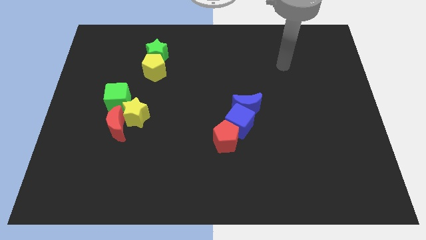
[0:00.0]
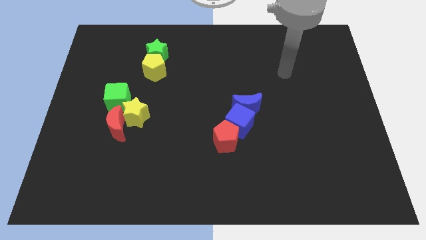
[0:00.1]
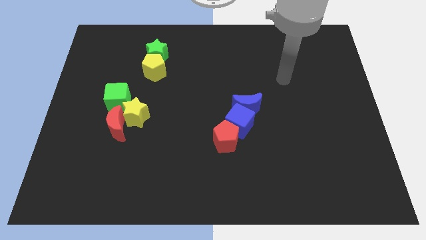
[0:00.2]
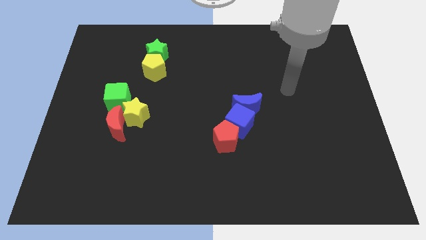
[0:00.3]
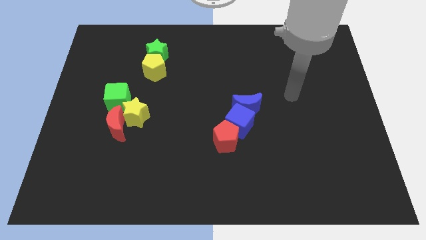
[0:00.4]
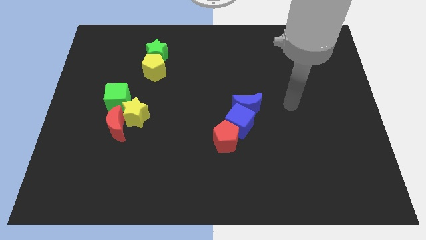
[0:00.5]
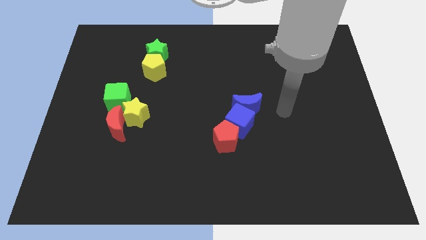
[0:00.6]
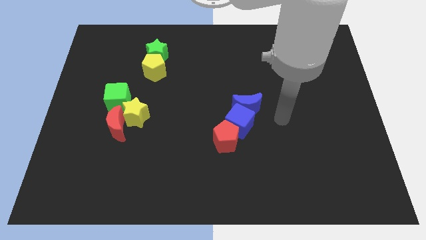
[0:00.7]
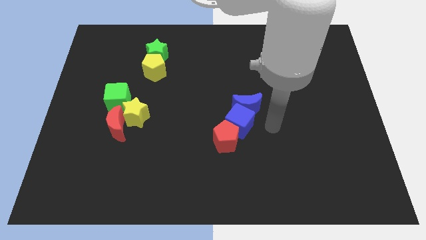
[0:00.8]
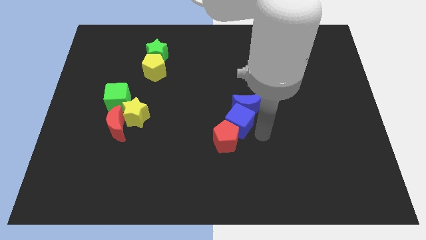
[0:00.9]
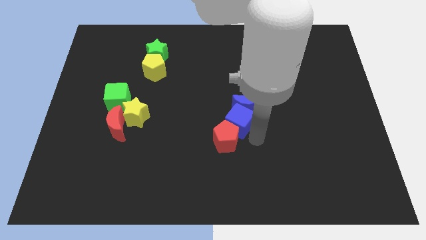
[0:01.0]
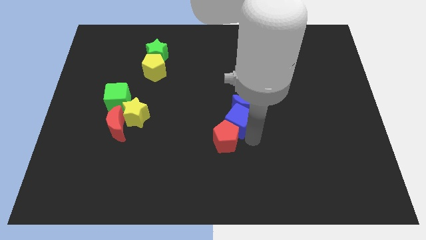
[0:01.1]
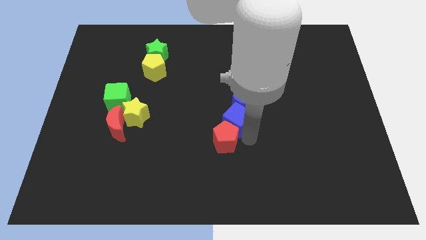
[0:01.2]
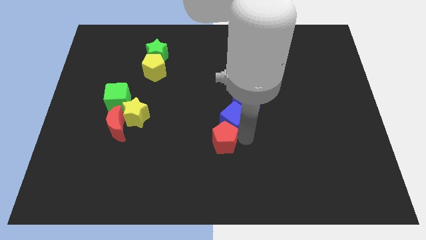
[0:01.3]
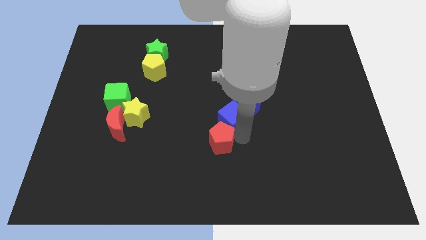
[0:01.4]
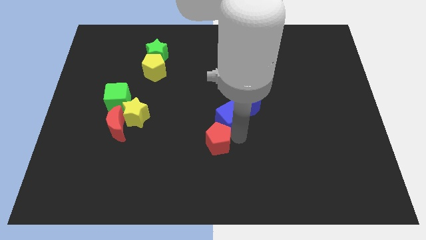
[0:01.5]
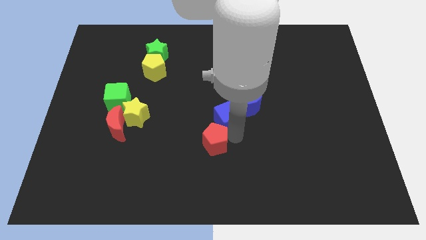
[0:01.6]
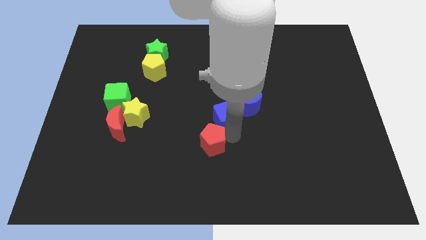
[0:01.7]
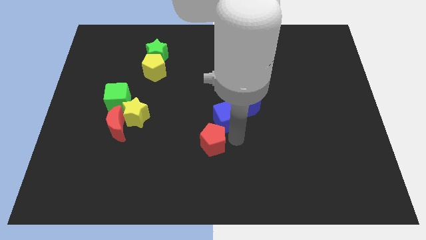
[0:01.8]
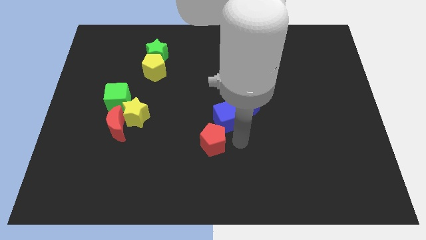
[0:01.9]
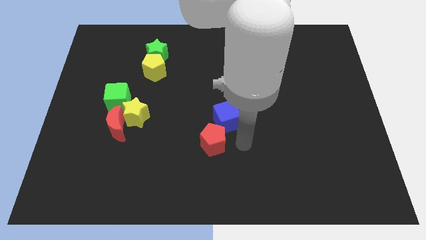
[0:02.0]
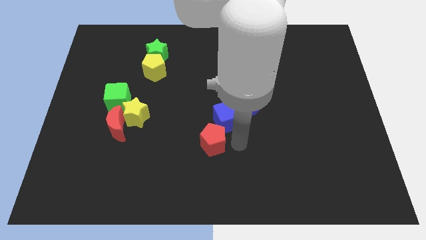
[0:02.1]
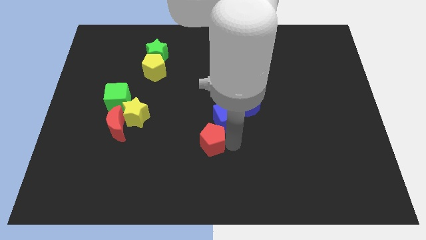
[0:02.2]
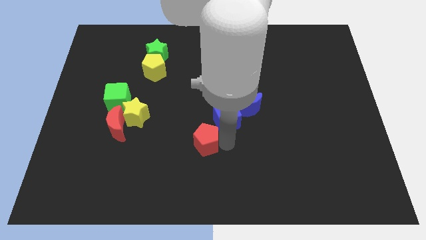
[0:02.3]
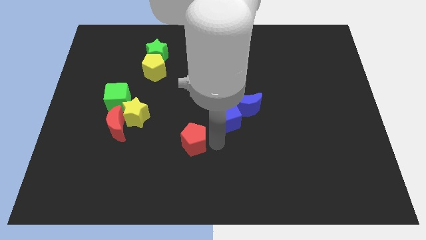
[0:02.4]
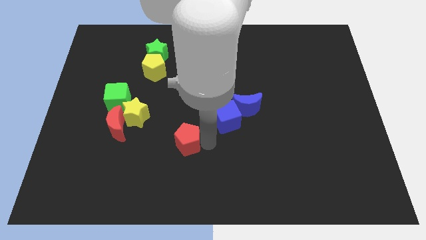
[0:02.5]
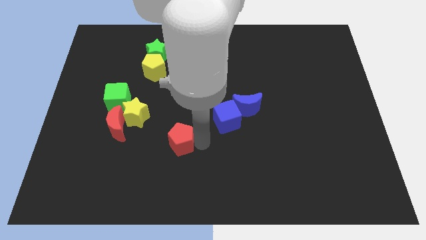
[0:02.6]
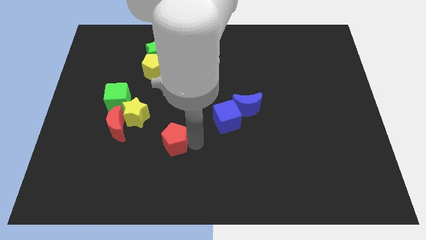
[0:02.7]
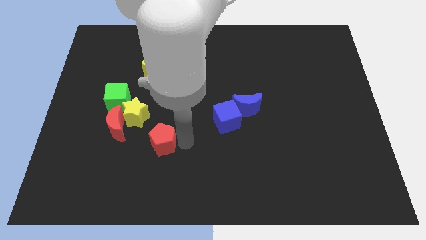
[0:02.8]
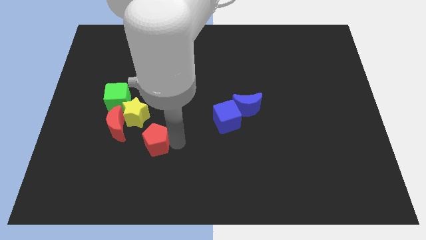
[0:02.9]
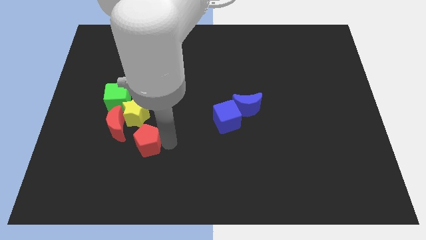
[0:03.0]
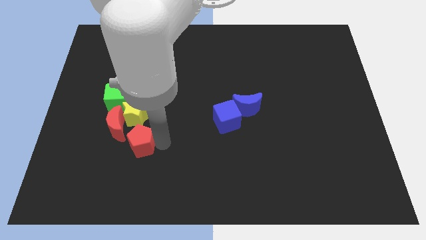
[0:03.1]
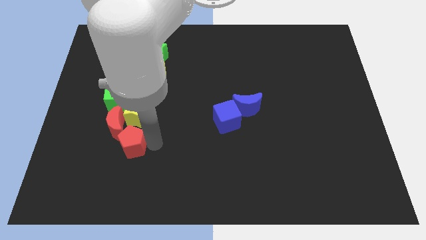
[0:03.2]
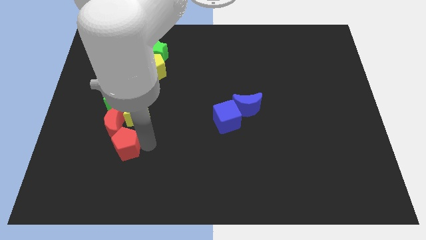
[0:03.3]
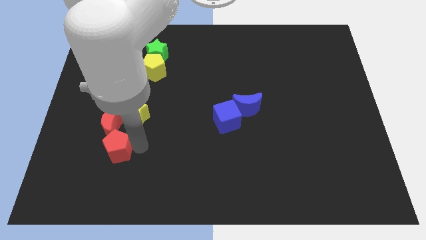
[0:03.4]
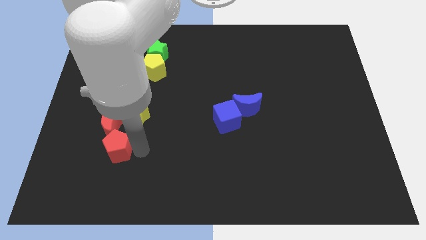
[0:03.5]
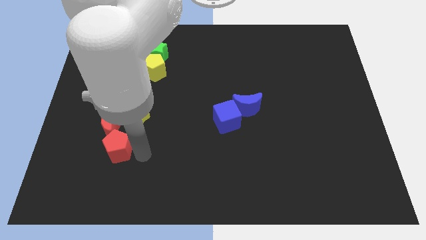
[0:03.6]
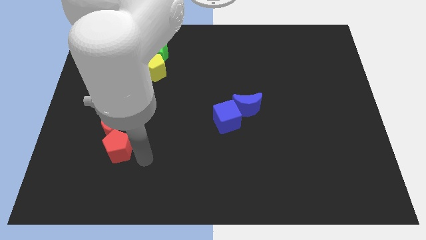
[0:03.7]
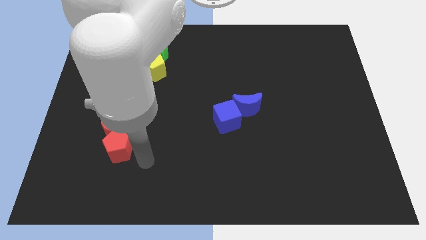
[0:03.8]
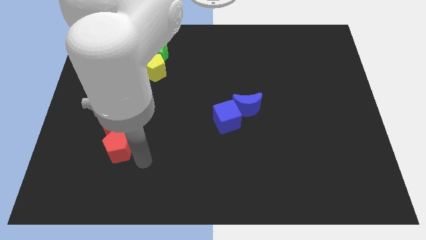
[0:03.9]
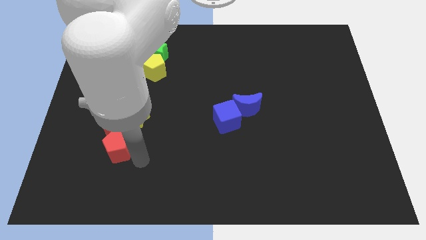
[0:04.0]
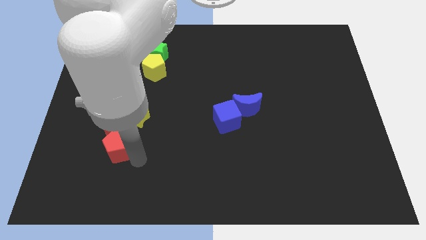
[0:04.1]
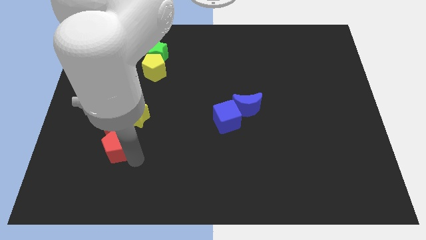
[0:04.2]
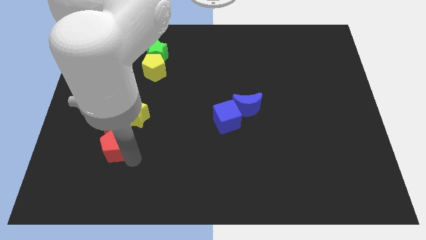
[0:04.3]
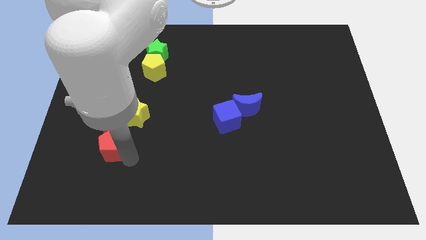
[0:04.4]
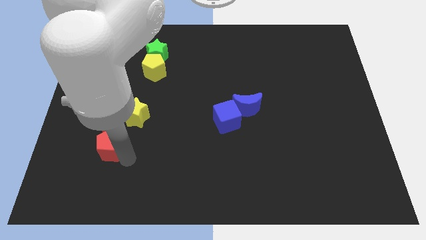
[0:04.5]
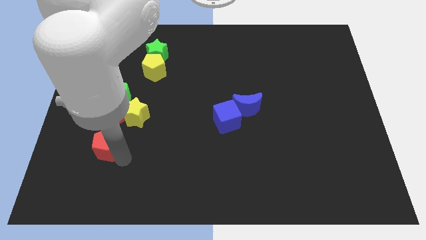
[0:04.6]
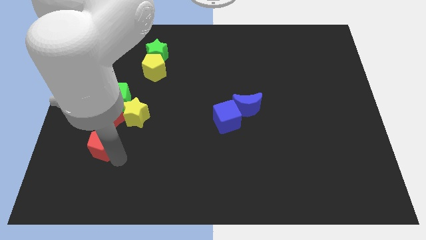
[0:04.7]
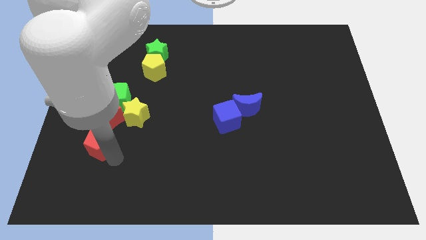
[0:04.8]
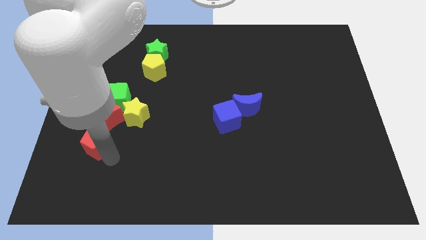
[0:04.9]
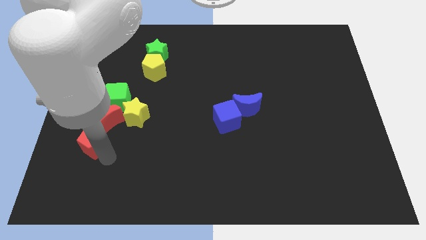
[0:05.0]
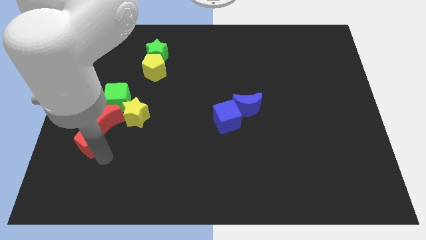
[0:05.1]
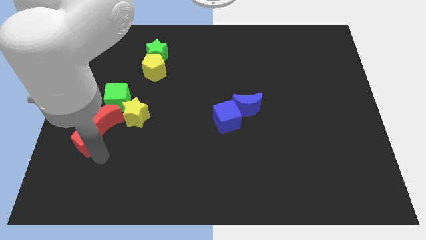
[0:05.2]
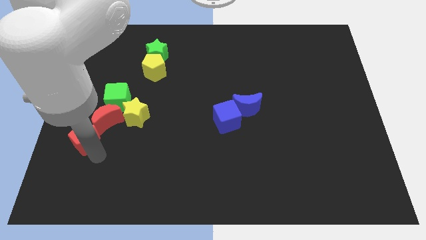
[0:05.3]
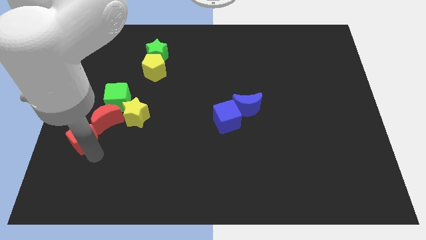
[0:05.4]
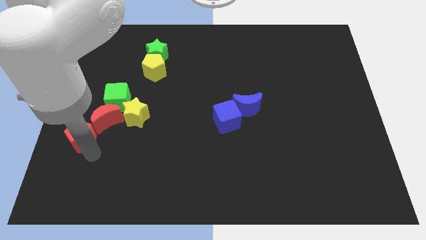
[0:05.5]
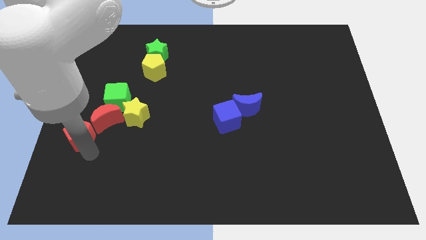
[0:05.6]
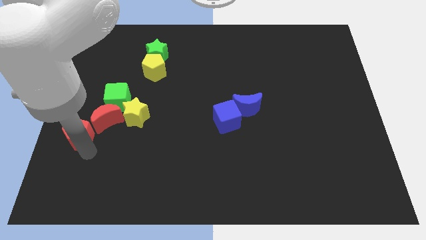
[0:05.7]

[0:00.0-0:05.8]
push the red pentagon to the center left

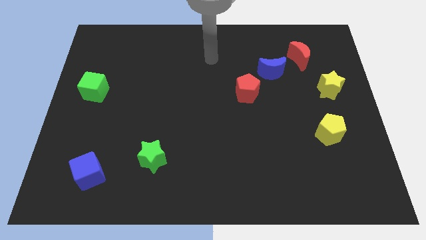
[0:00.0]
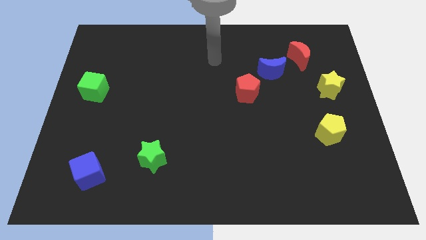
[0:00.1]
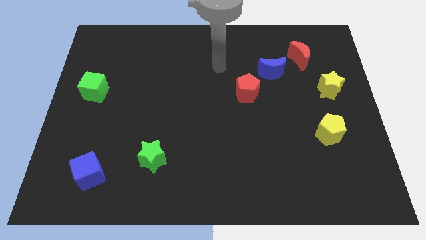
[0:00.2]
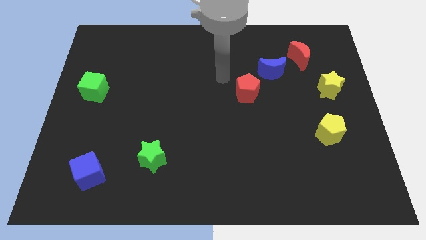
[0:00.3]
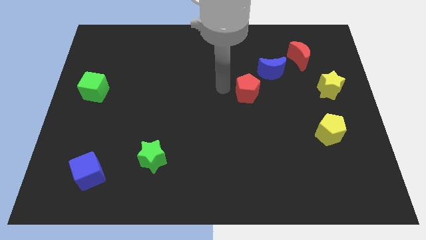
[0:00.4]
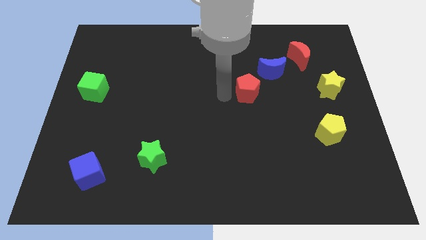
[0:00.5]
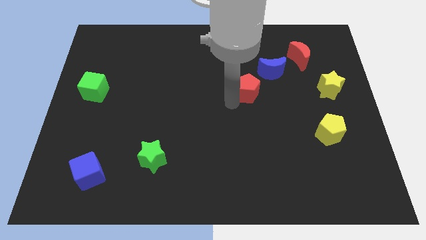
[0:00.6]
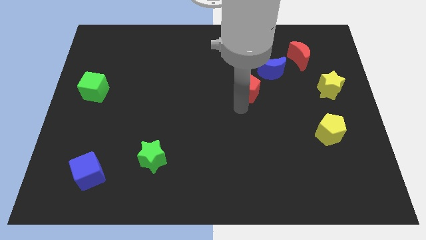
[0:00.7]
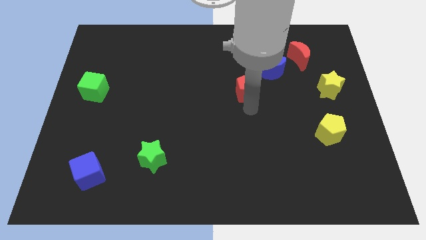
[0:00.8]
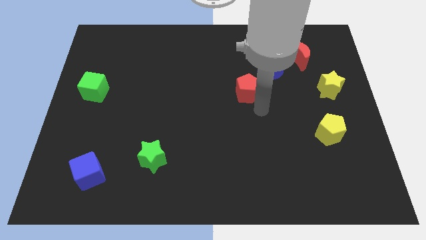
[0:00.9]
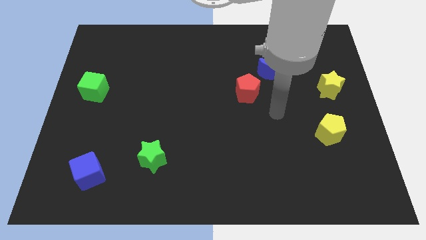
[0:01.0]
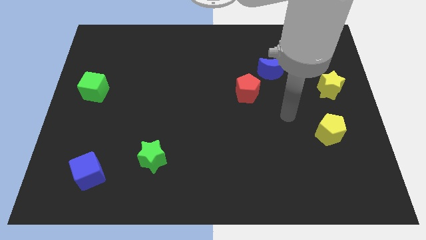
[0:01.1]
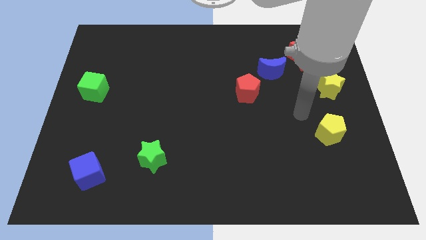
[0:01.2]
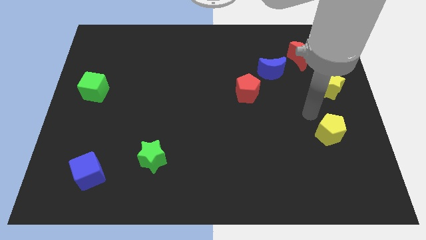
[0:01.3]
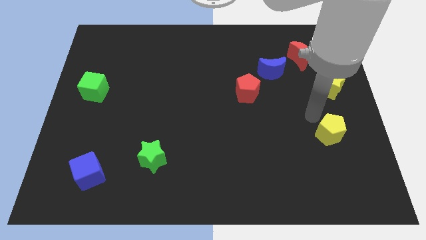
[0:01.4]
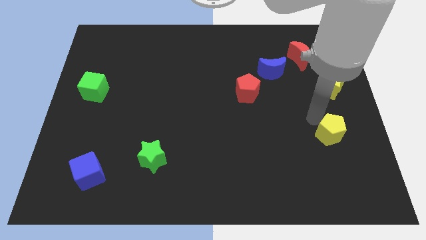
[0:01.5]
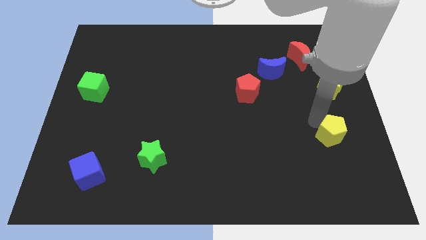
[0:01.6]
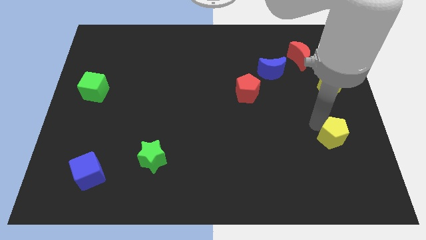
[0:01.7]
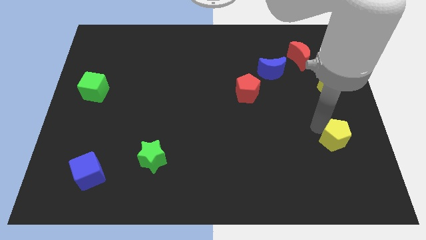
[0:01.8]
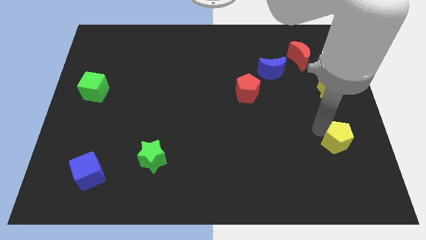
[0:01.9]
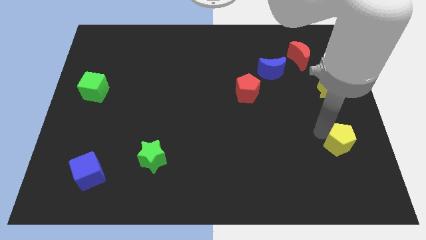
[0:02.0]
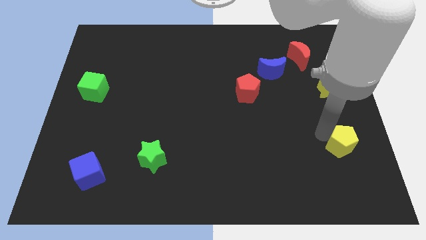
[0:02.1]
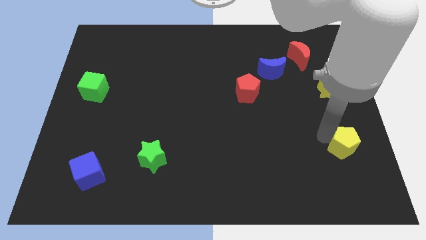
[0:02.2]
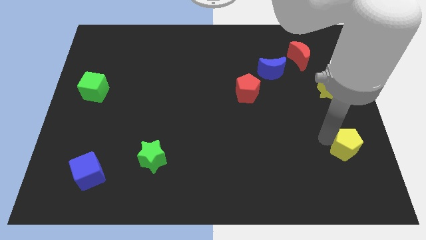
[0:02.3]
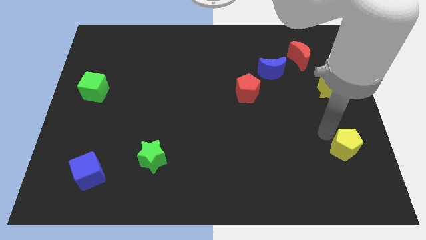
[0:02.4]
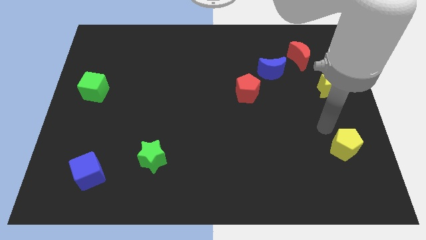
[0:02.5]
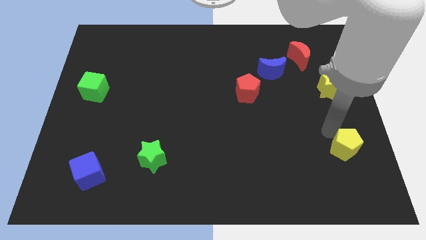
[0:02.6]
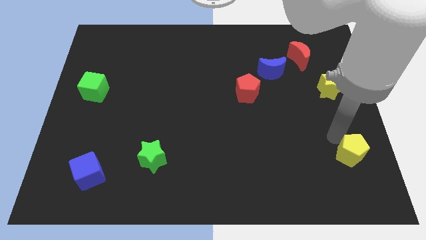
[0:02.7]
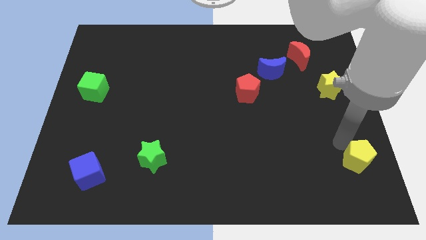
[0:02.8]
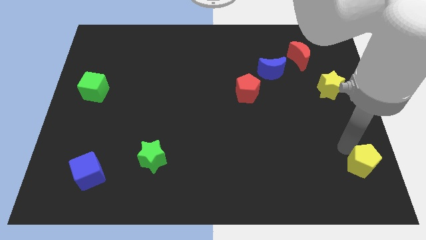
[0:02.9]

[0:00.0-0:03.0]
put the yellow pentagon to the bottom right corner
